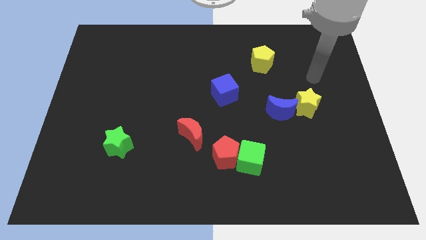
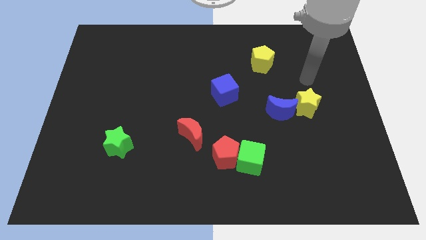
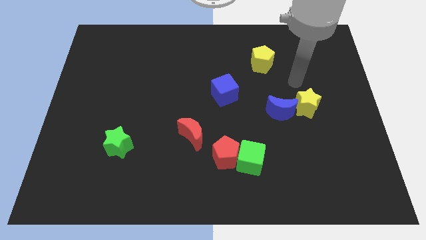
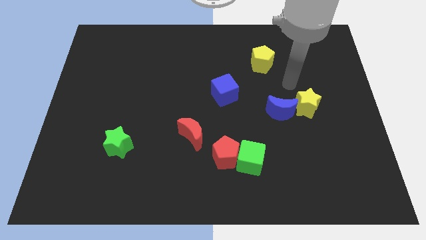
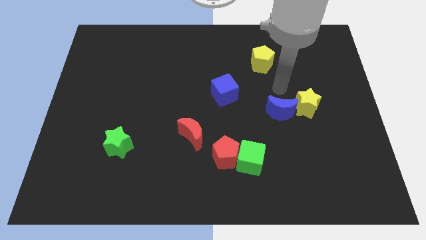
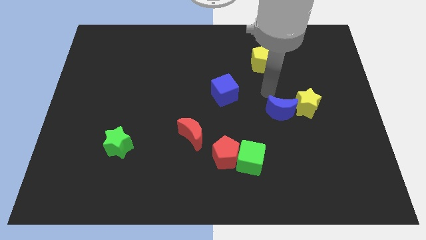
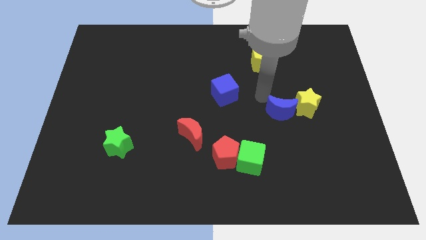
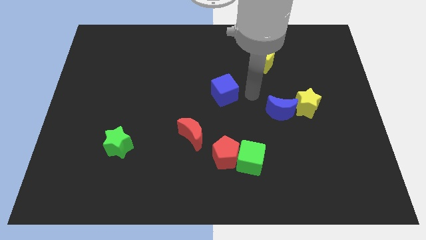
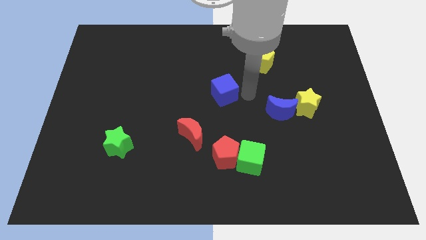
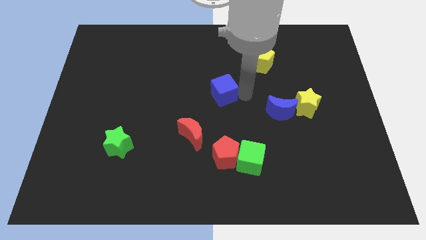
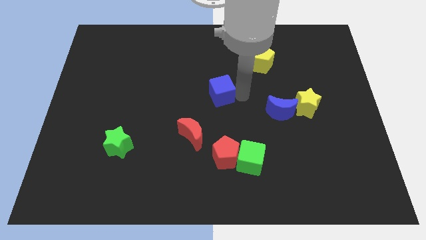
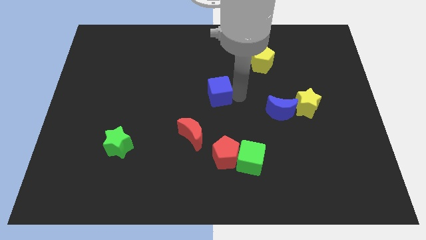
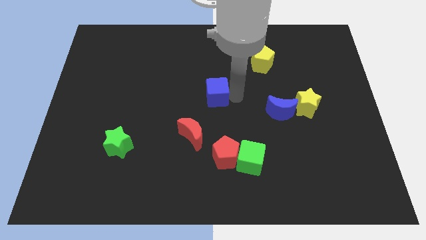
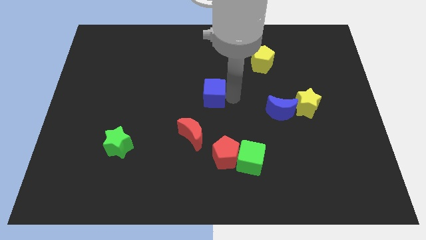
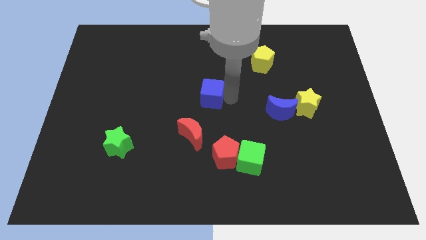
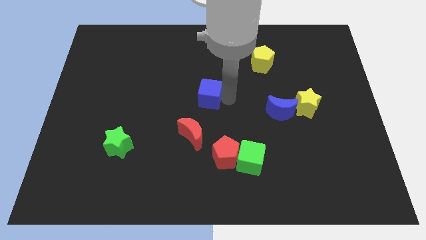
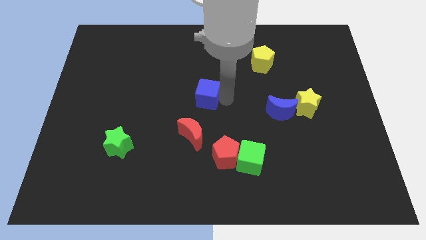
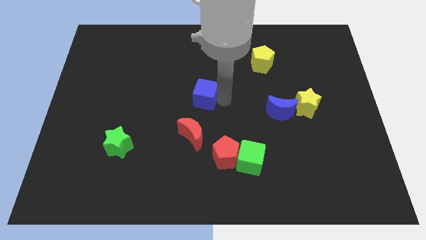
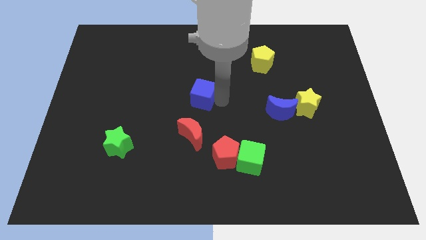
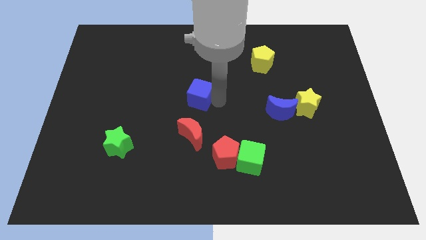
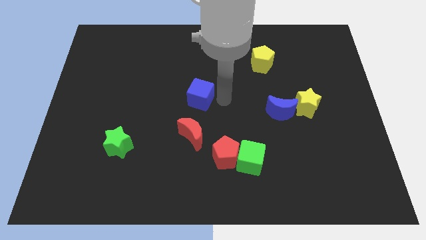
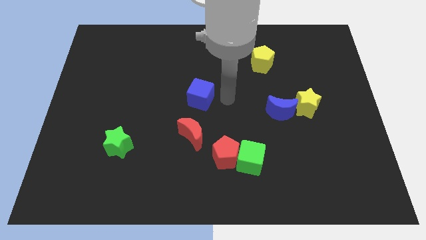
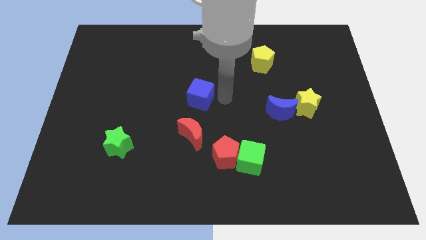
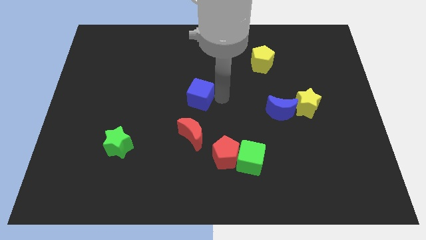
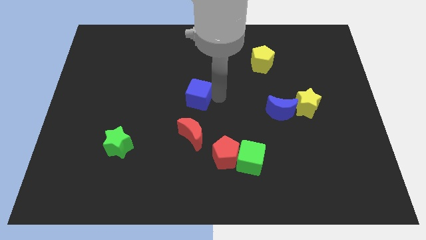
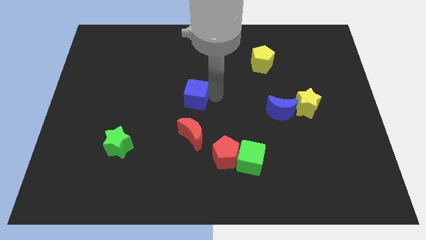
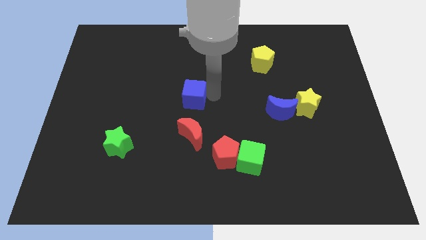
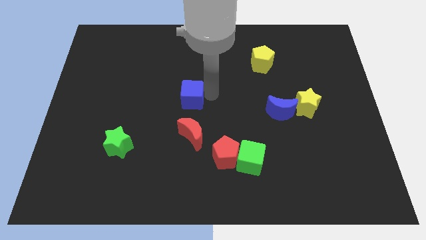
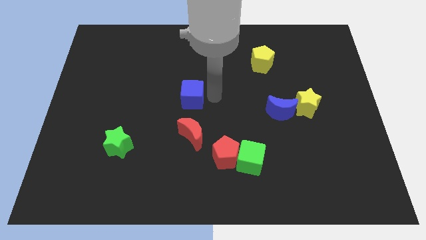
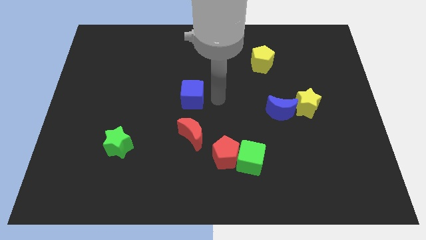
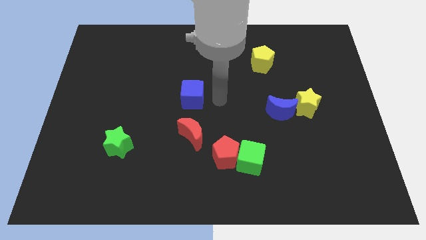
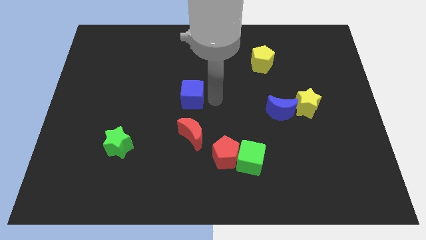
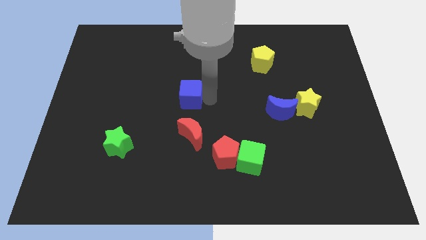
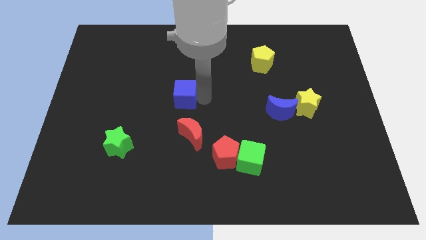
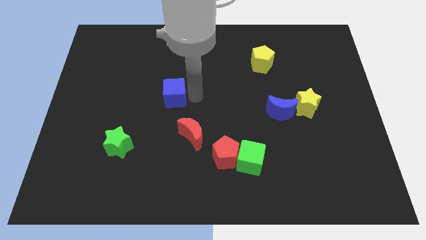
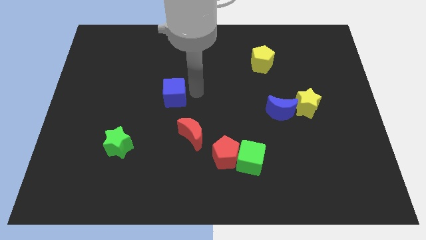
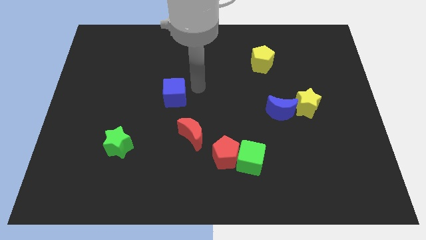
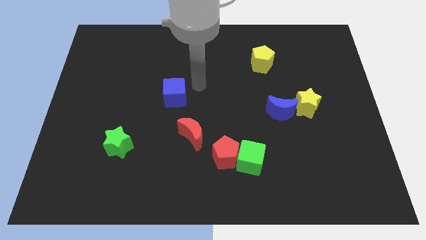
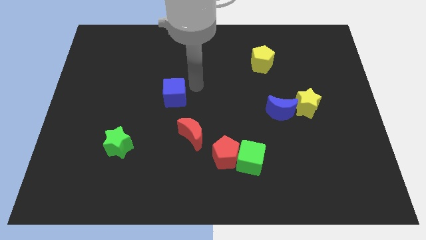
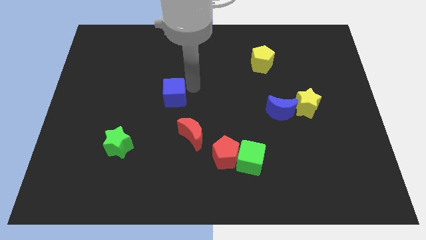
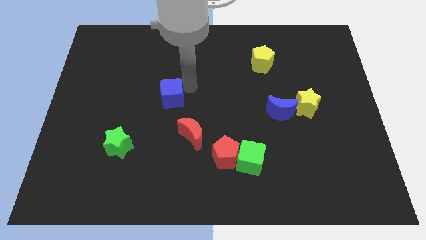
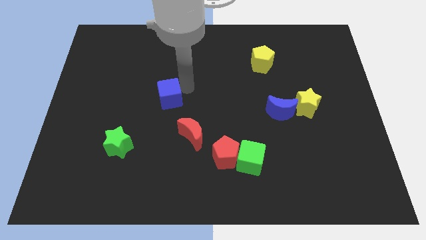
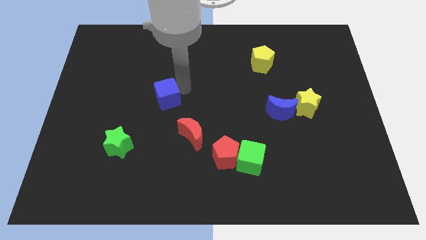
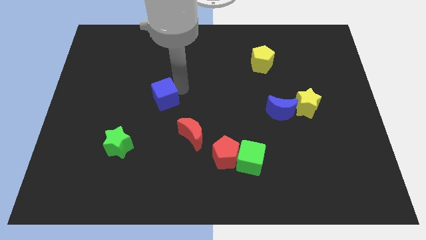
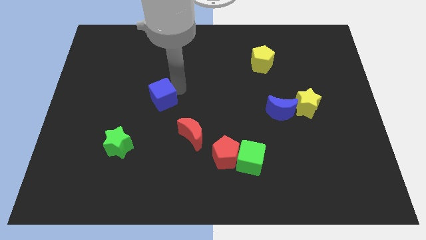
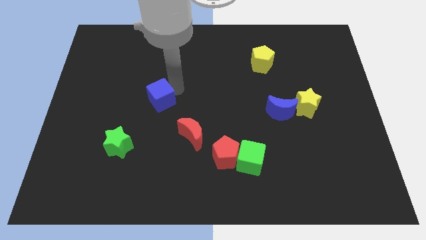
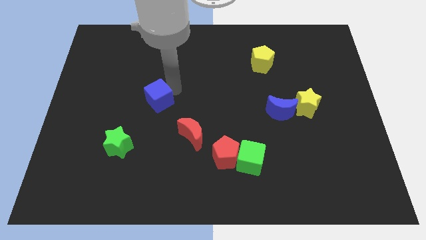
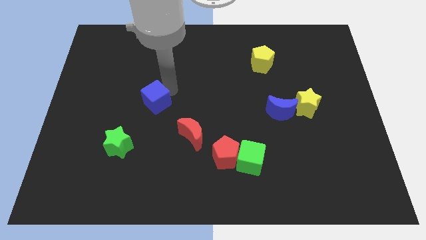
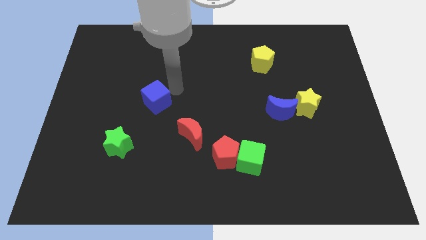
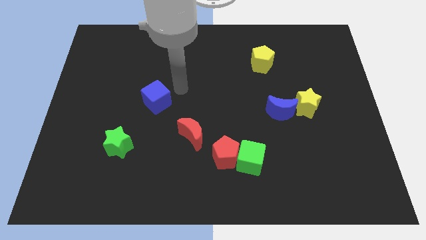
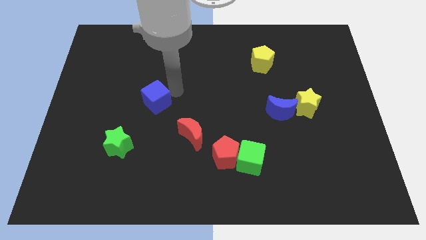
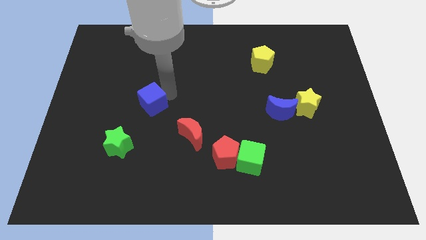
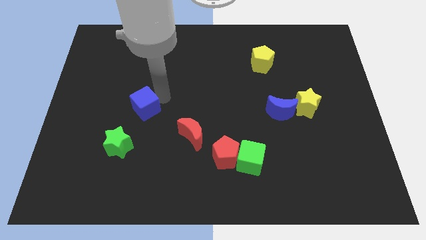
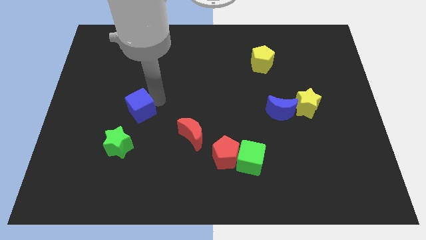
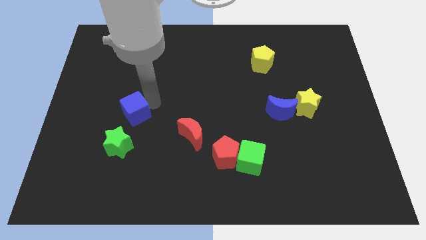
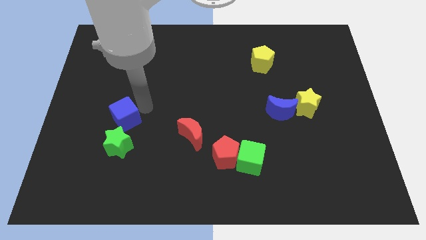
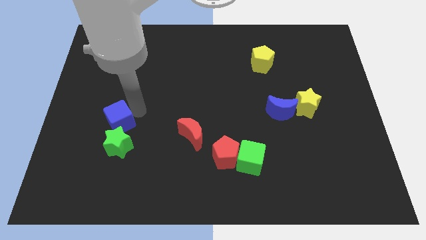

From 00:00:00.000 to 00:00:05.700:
slide the blue cube to the top left side of the green star

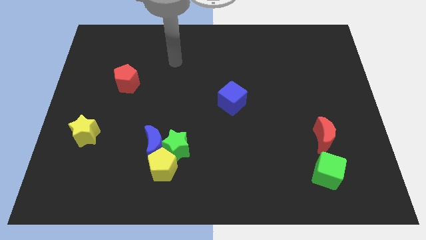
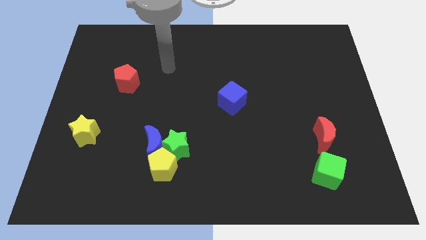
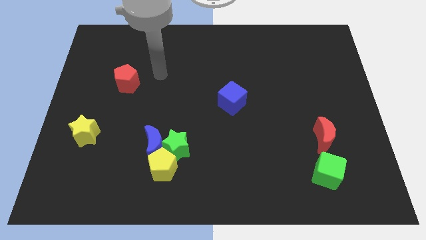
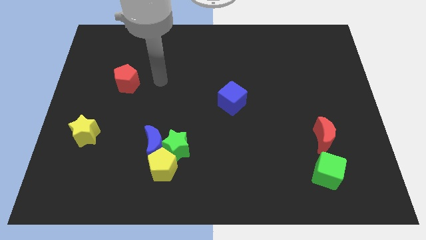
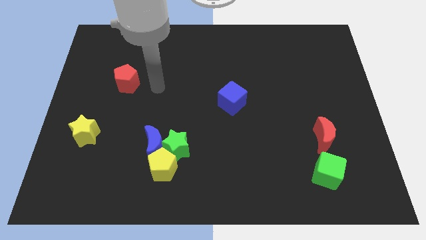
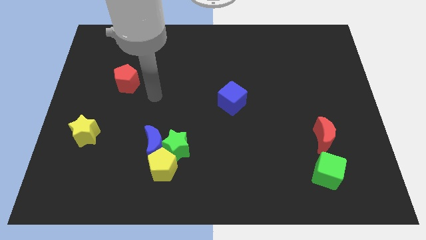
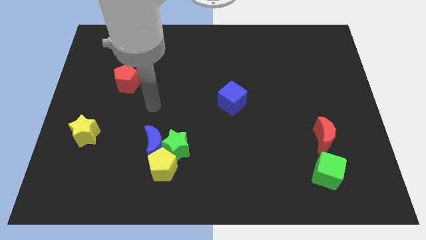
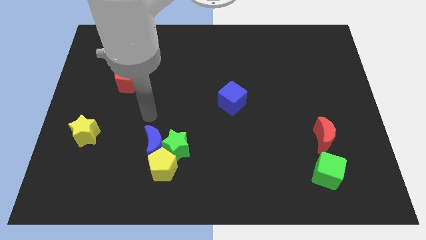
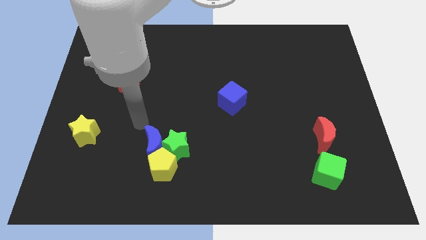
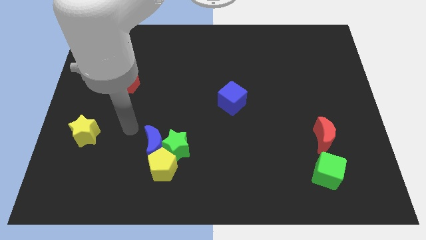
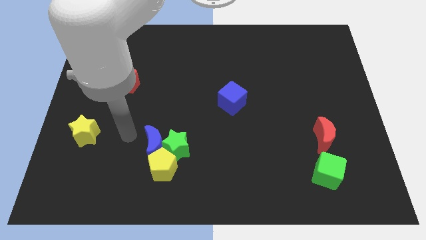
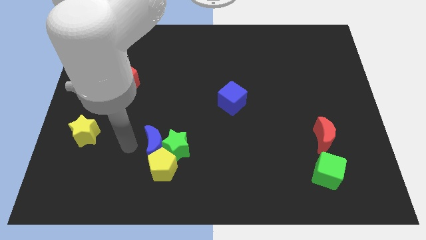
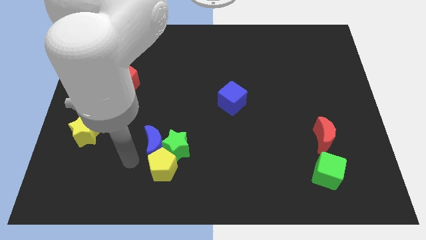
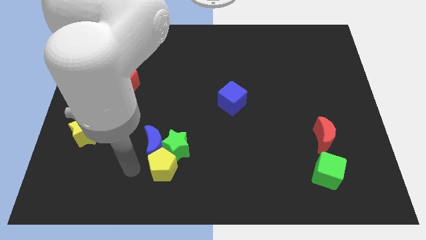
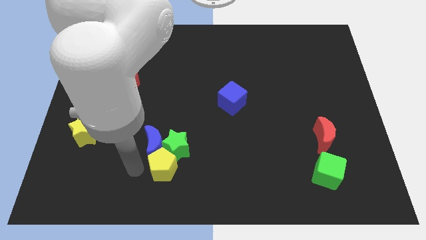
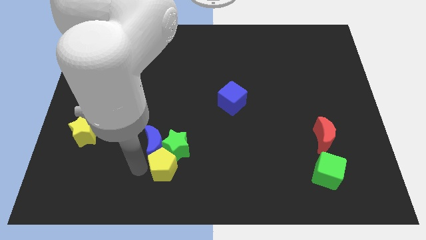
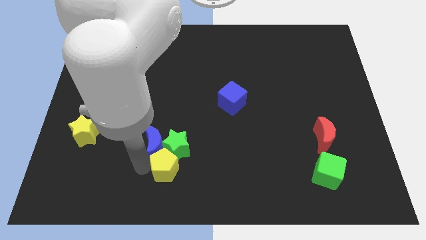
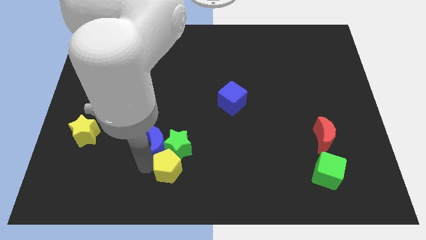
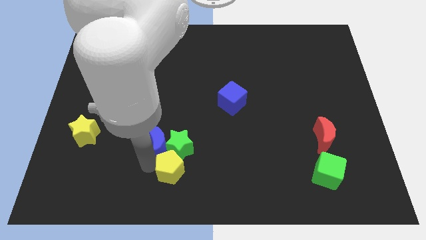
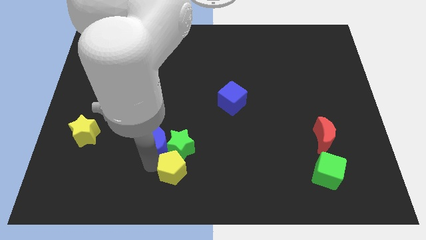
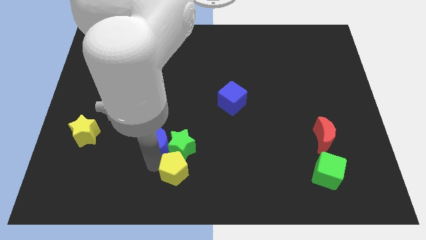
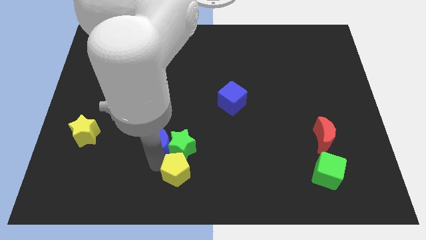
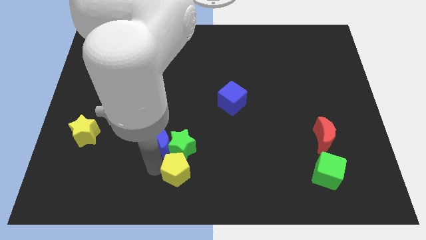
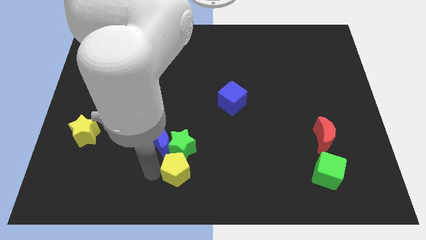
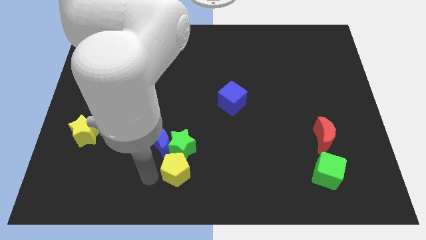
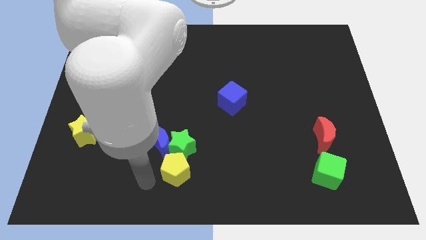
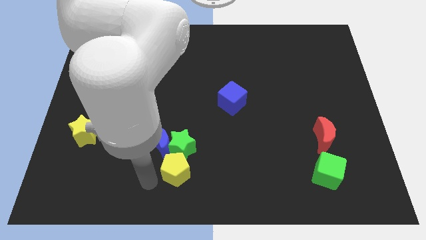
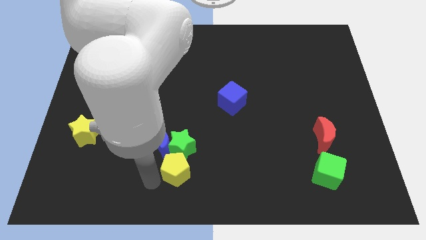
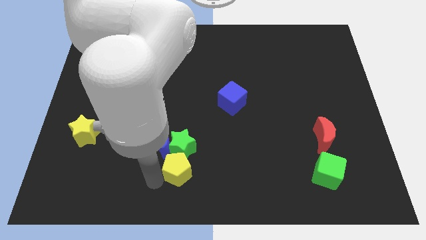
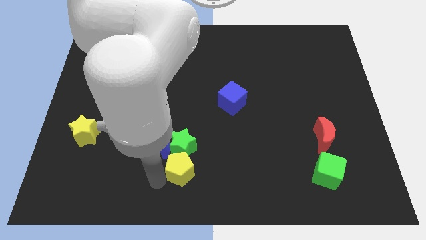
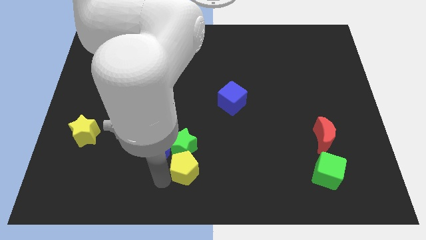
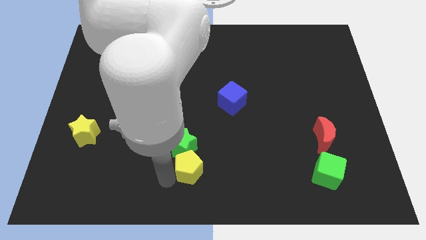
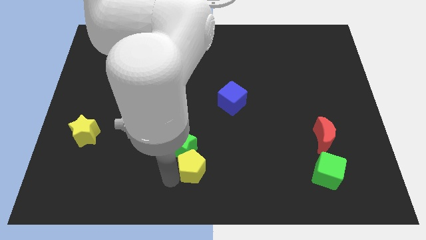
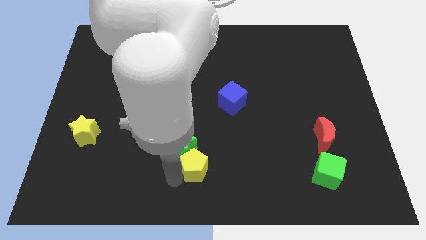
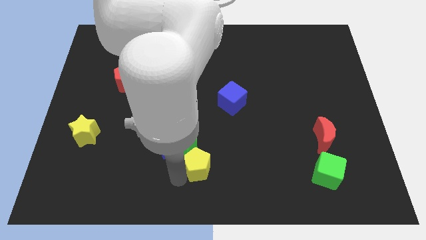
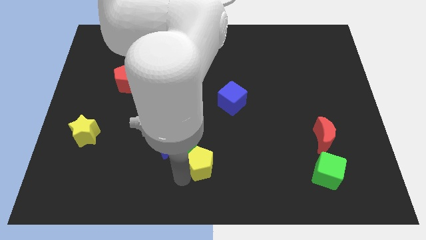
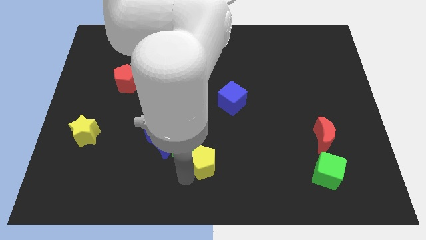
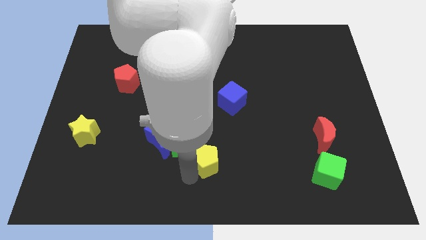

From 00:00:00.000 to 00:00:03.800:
push the yellow pentagon to the right side of the blue moon
